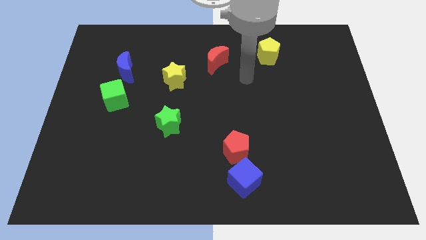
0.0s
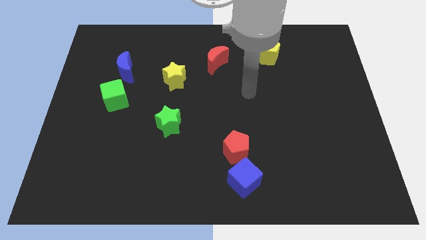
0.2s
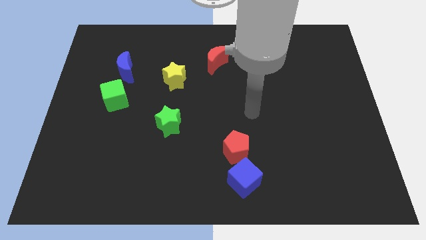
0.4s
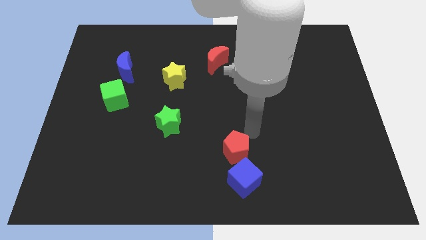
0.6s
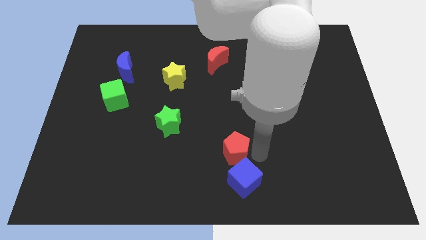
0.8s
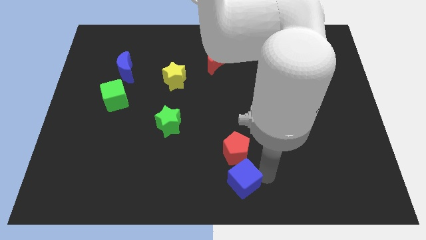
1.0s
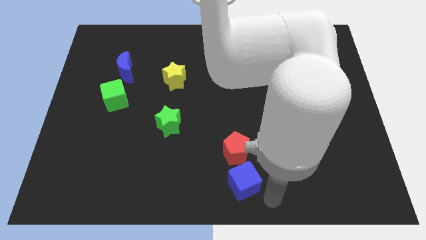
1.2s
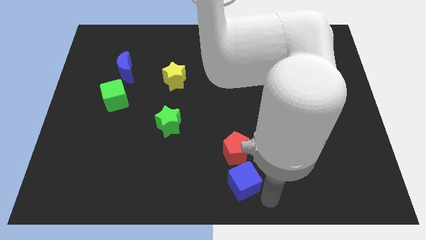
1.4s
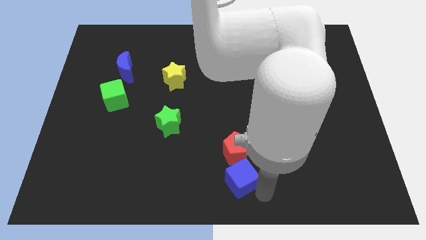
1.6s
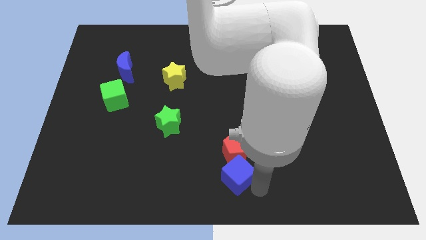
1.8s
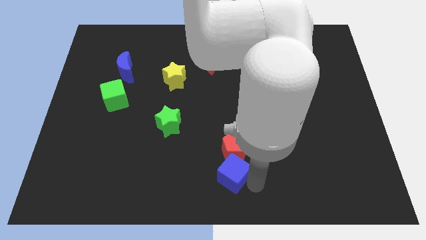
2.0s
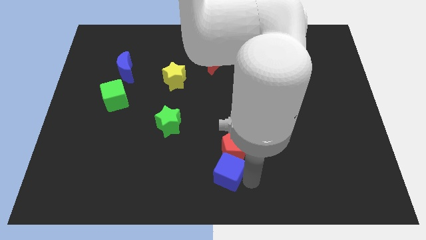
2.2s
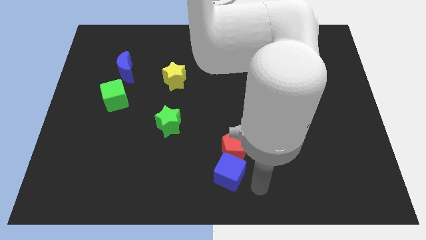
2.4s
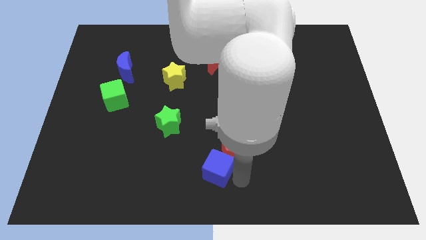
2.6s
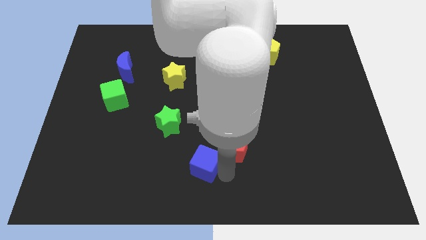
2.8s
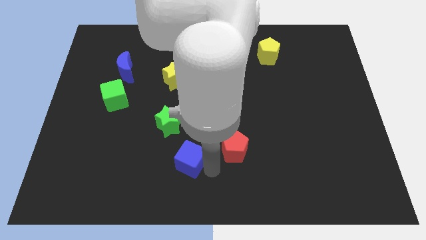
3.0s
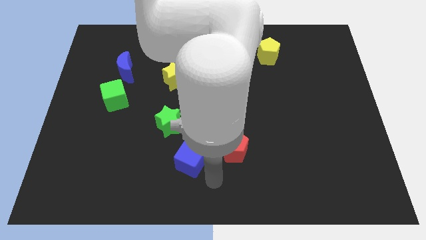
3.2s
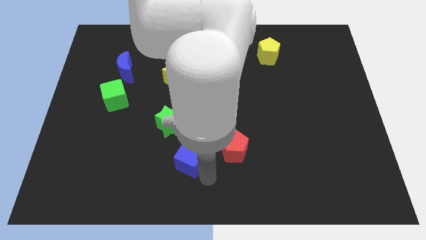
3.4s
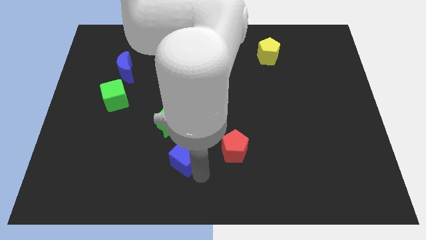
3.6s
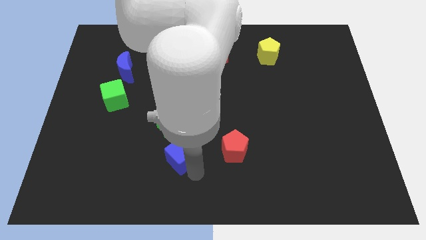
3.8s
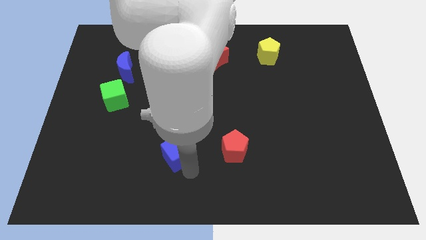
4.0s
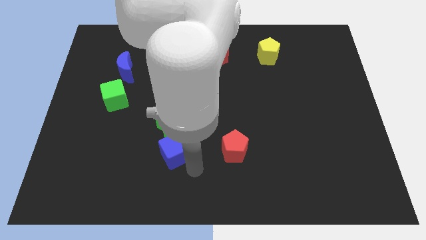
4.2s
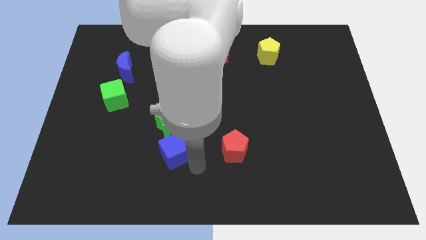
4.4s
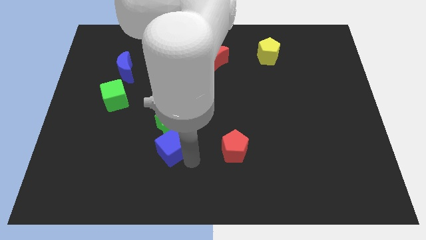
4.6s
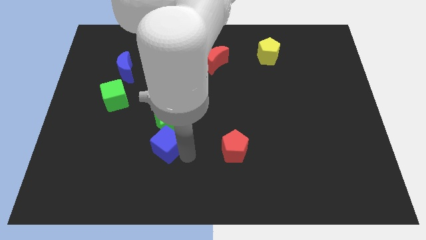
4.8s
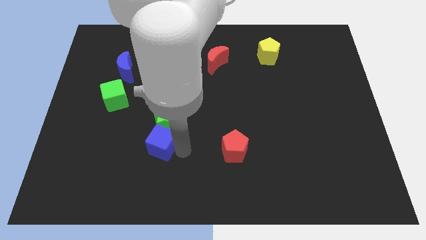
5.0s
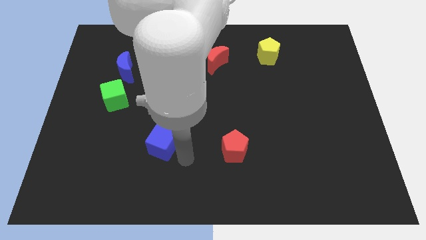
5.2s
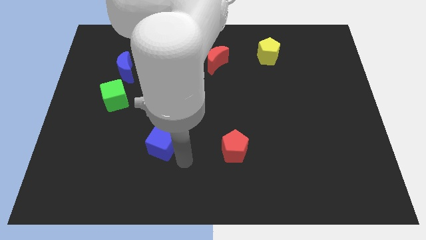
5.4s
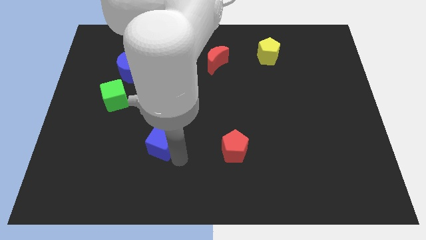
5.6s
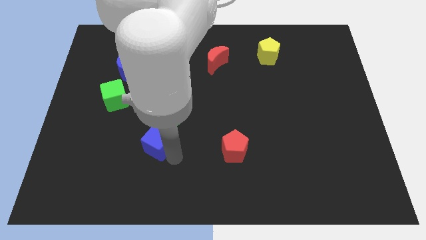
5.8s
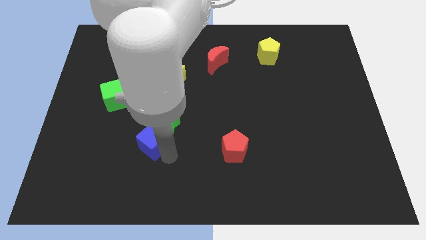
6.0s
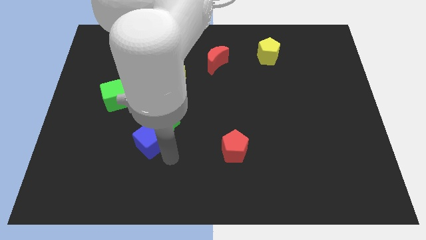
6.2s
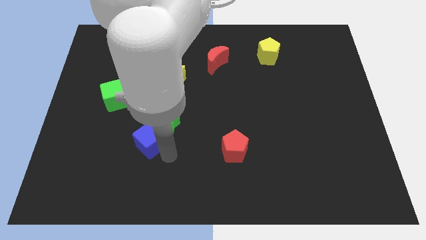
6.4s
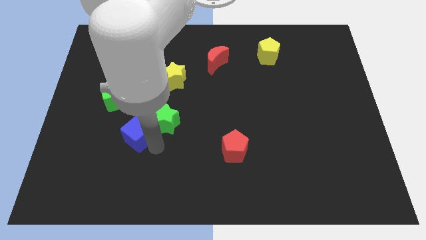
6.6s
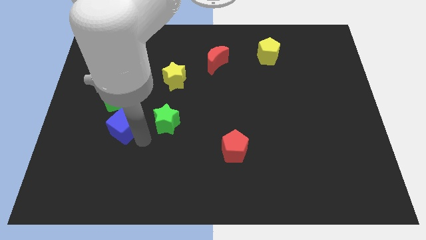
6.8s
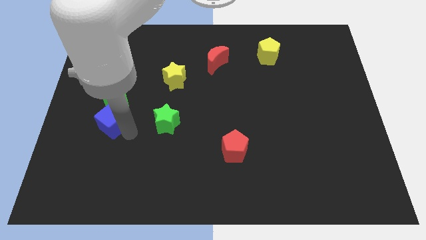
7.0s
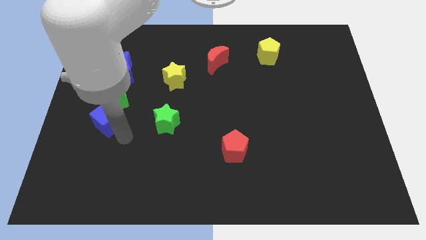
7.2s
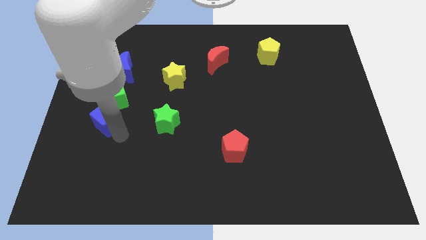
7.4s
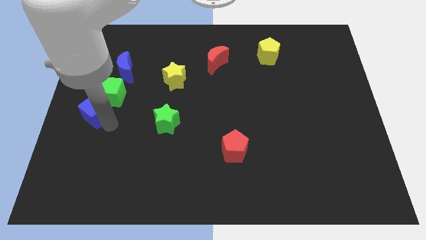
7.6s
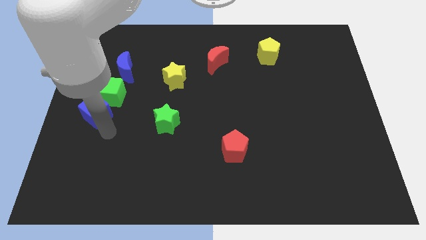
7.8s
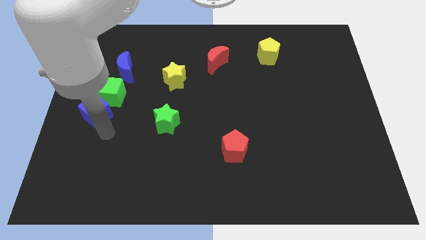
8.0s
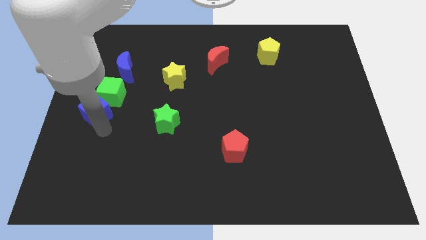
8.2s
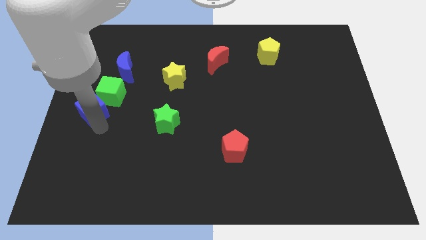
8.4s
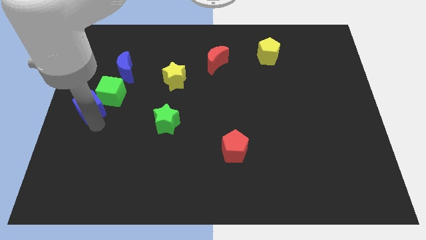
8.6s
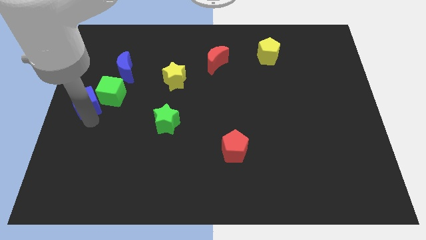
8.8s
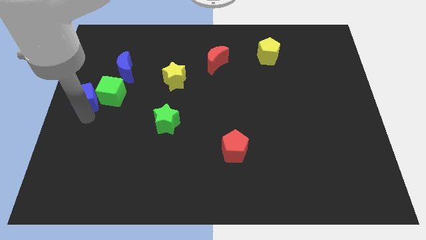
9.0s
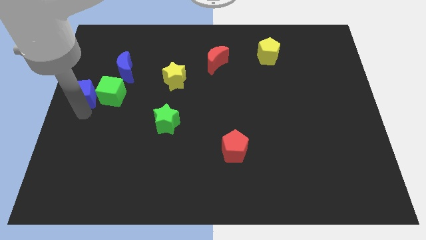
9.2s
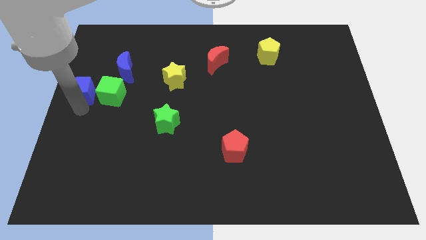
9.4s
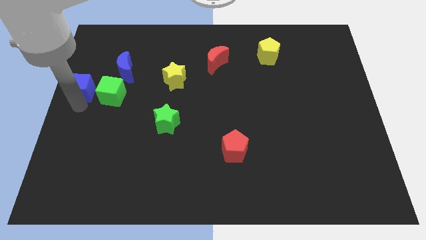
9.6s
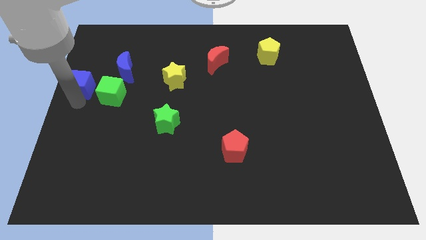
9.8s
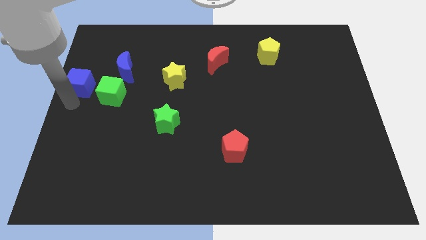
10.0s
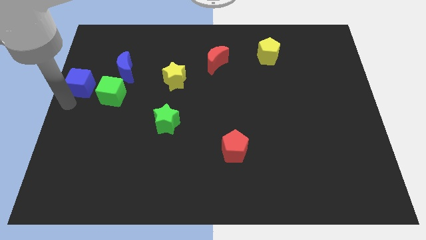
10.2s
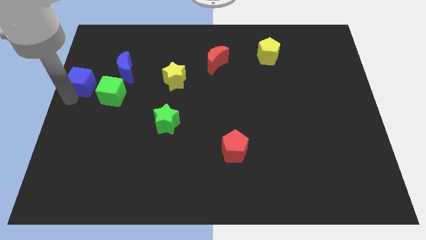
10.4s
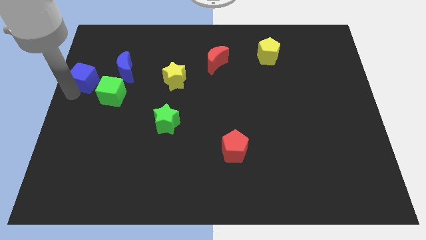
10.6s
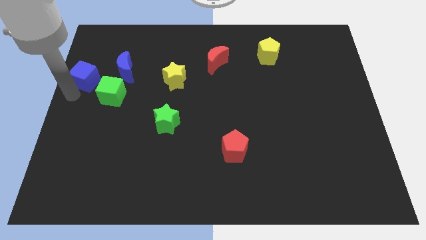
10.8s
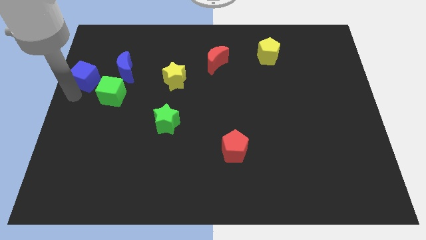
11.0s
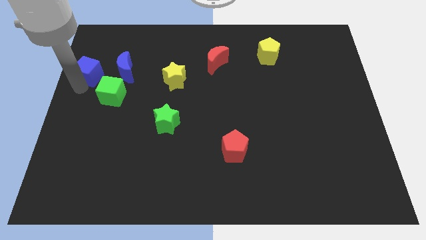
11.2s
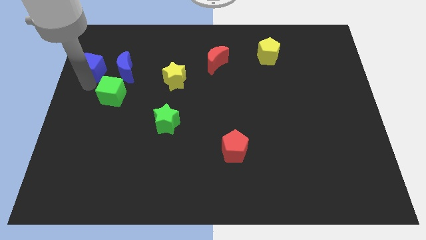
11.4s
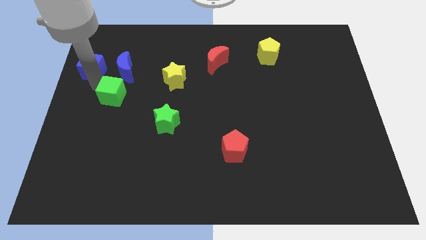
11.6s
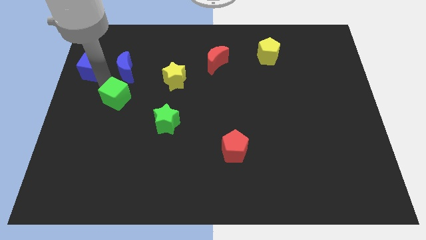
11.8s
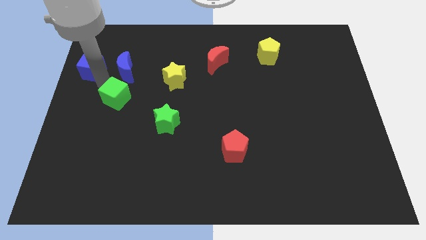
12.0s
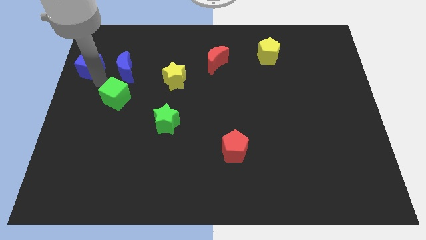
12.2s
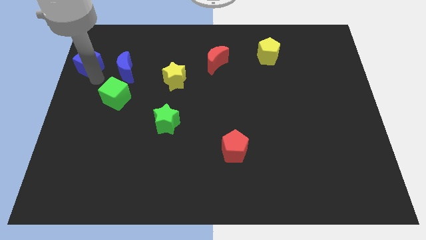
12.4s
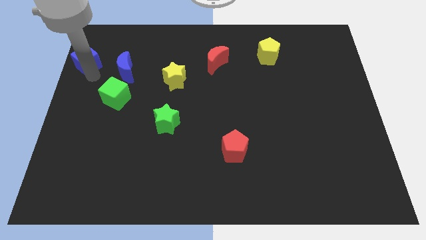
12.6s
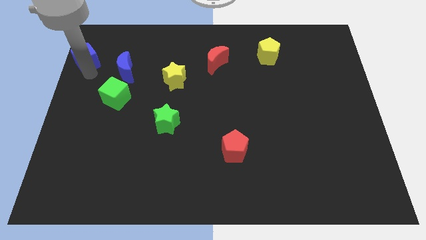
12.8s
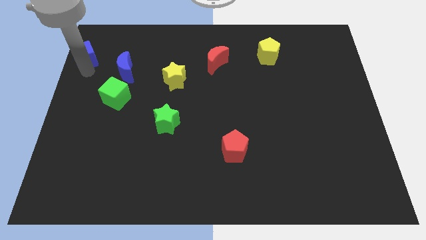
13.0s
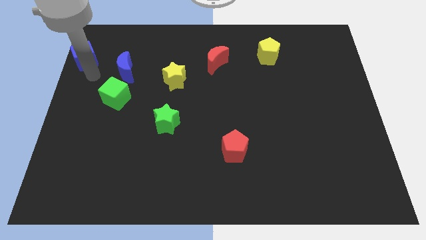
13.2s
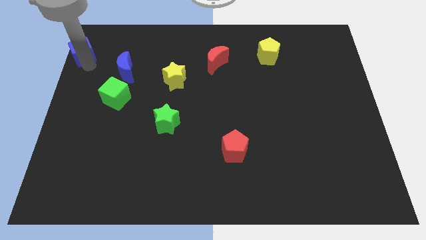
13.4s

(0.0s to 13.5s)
move the blue cube to the top left
